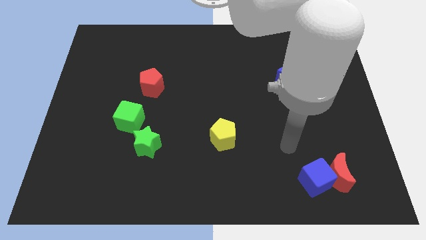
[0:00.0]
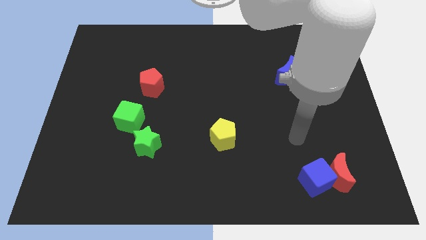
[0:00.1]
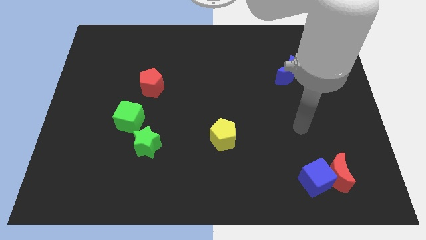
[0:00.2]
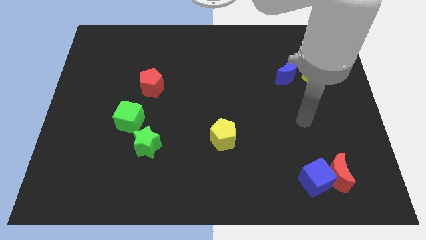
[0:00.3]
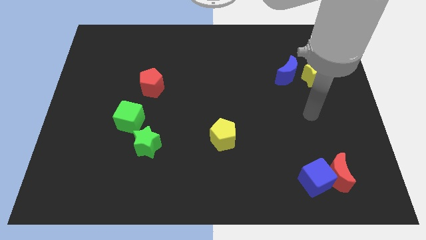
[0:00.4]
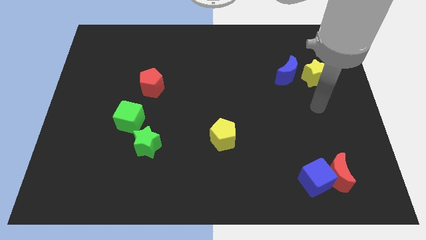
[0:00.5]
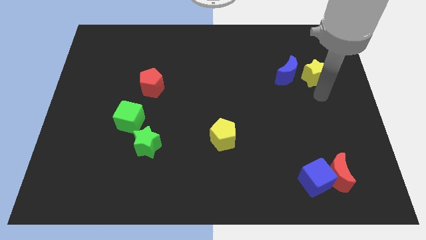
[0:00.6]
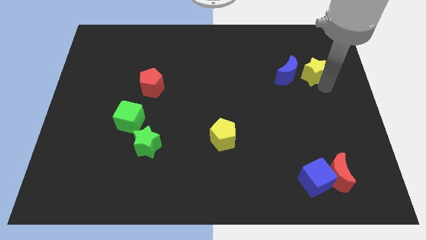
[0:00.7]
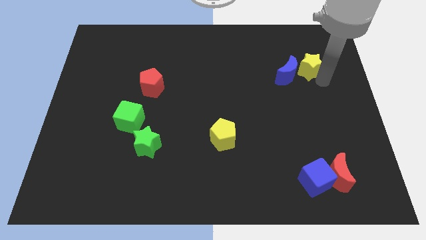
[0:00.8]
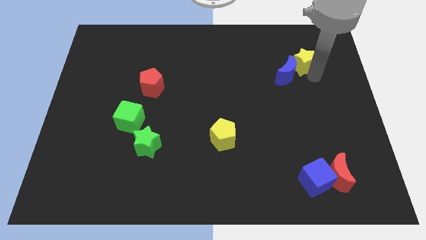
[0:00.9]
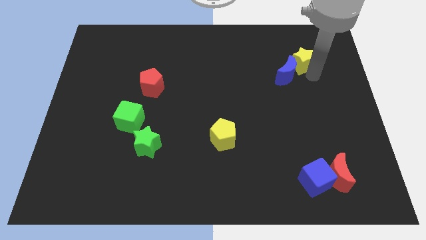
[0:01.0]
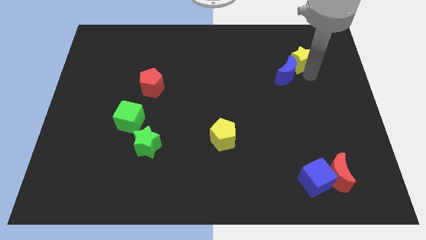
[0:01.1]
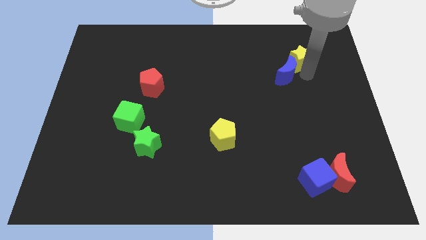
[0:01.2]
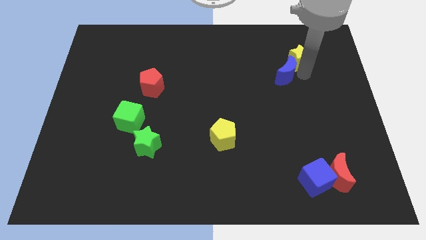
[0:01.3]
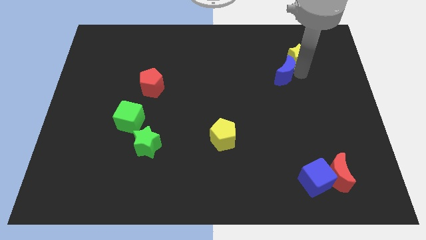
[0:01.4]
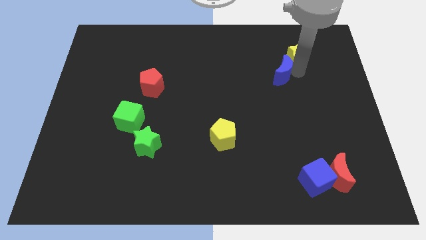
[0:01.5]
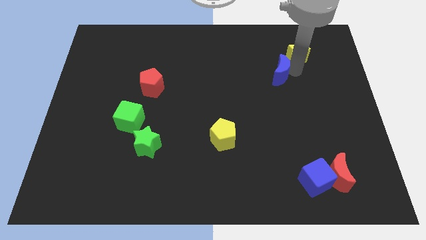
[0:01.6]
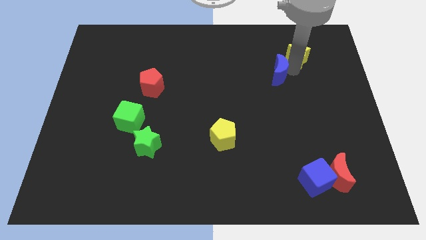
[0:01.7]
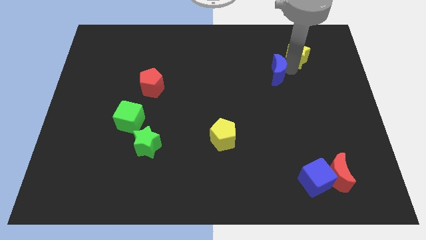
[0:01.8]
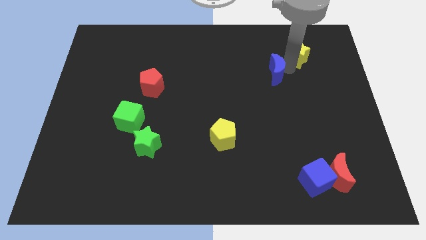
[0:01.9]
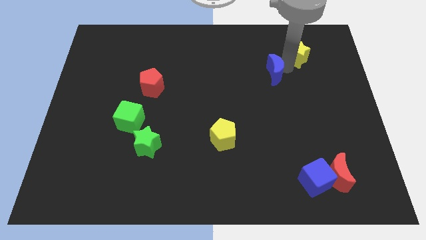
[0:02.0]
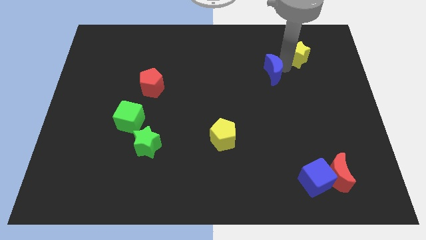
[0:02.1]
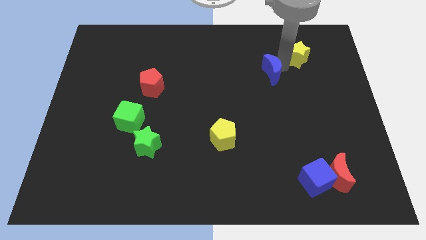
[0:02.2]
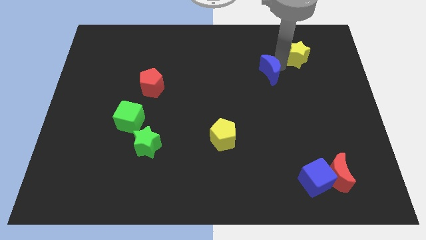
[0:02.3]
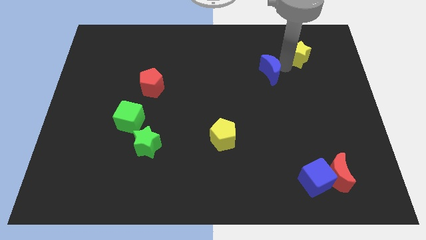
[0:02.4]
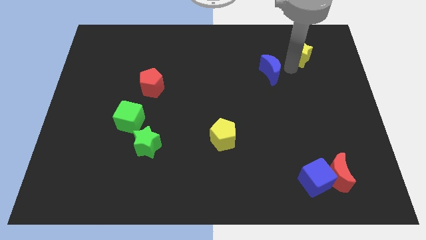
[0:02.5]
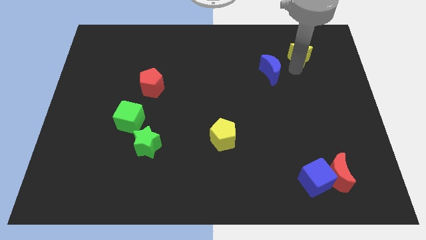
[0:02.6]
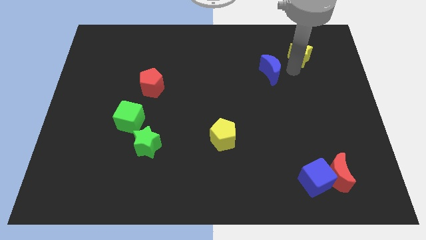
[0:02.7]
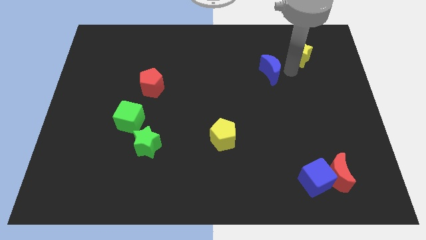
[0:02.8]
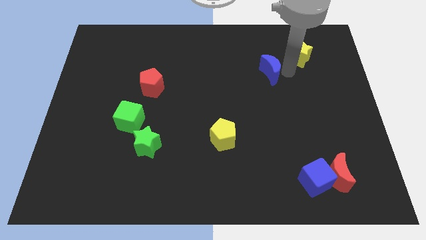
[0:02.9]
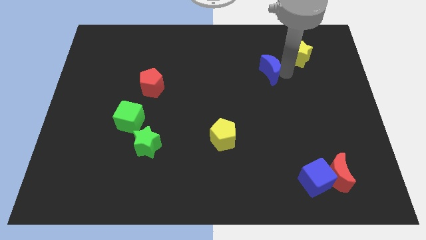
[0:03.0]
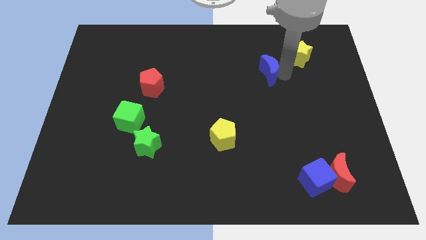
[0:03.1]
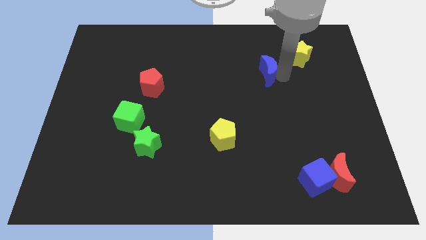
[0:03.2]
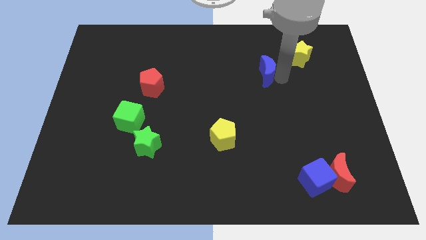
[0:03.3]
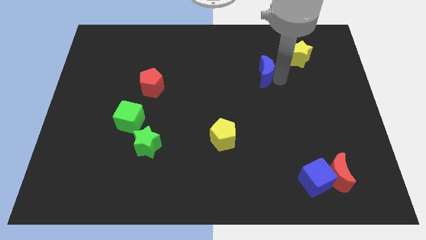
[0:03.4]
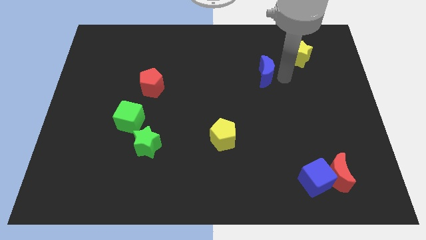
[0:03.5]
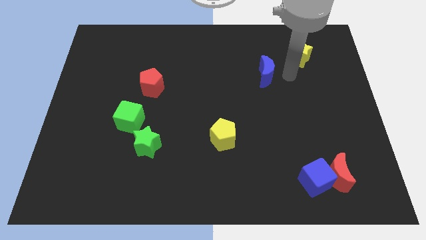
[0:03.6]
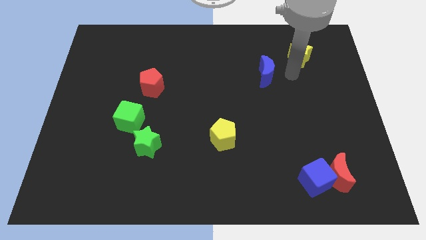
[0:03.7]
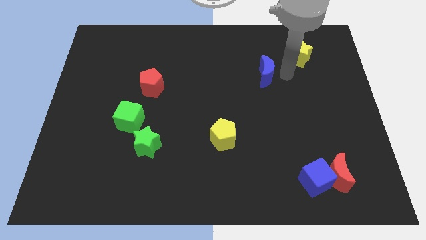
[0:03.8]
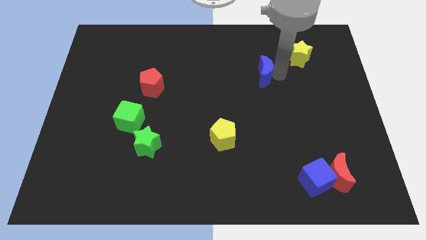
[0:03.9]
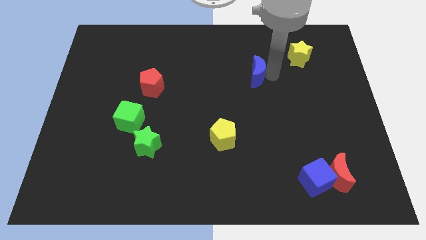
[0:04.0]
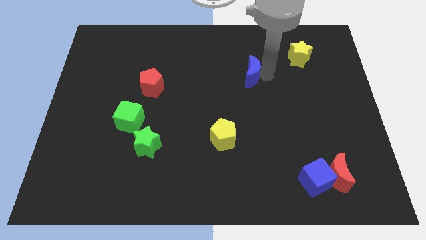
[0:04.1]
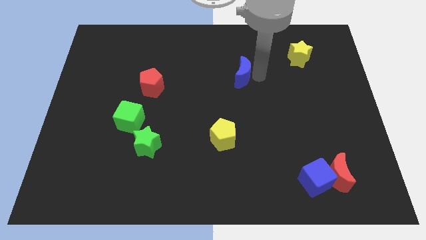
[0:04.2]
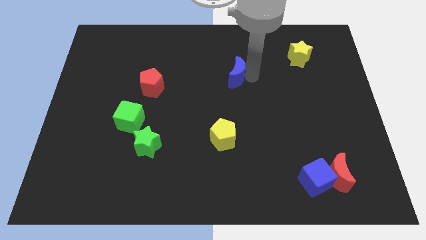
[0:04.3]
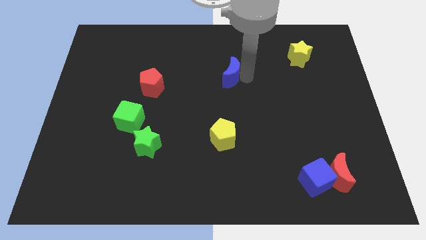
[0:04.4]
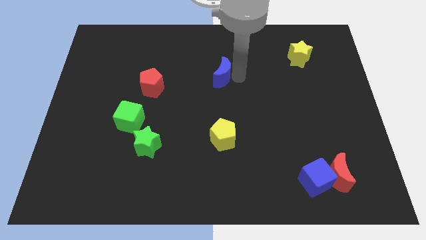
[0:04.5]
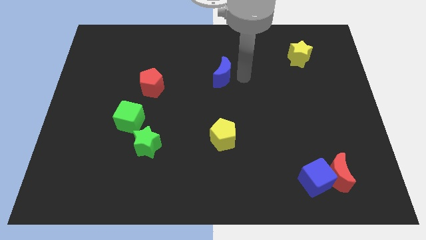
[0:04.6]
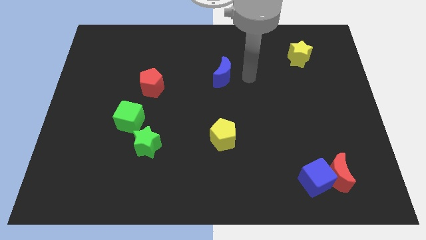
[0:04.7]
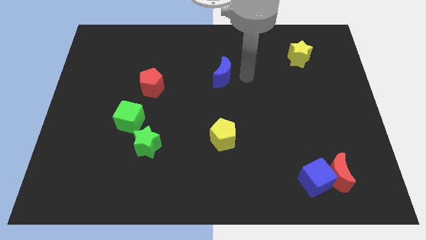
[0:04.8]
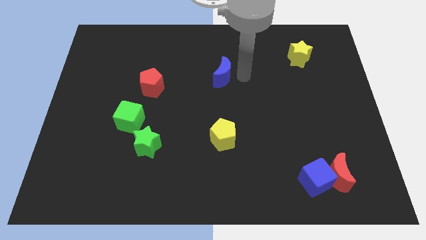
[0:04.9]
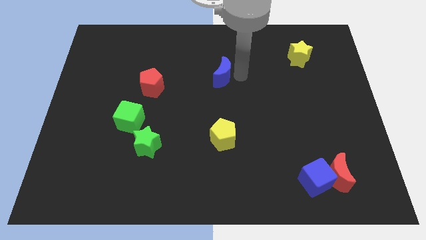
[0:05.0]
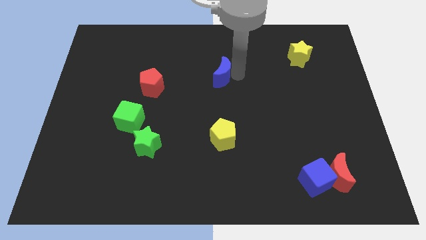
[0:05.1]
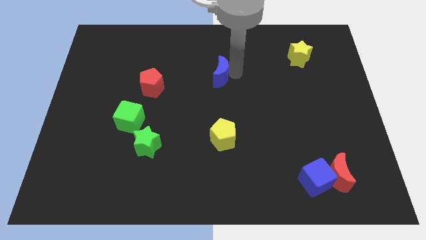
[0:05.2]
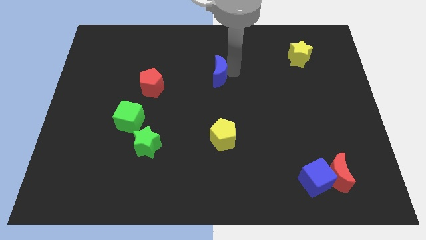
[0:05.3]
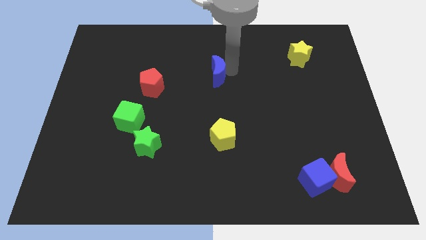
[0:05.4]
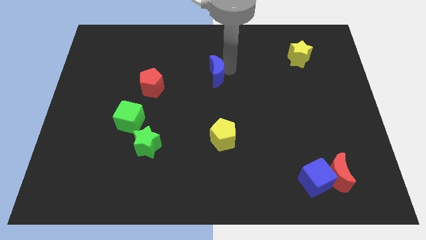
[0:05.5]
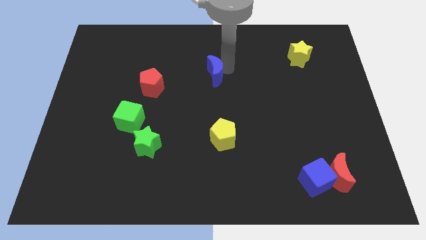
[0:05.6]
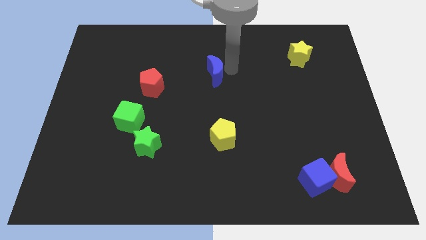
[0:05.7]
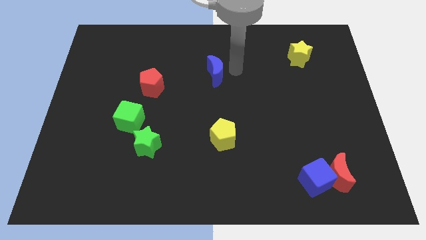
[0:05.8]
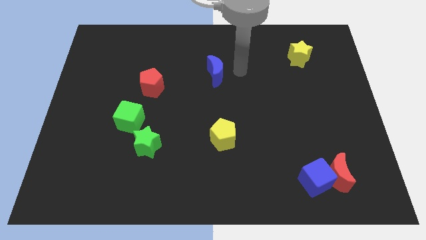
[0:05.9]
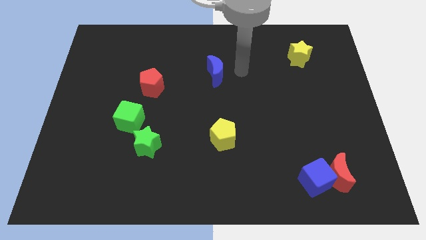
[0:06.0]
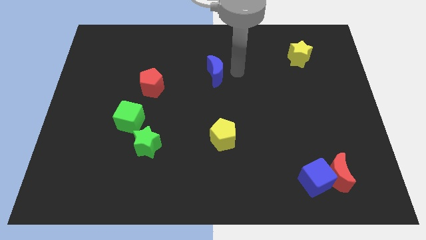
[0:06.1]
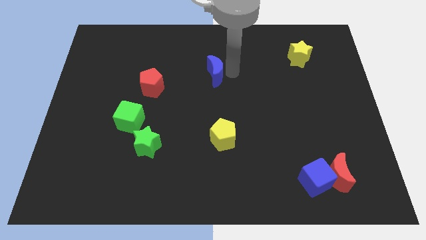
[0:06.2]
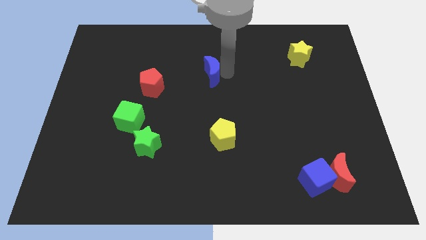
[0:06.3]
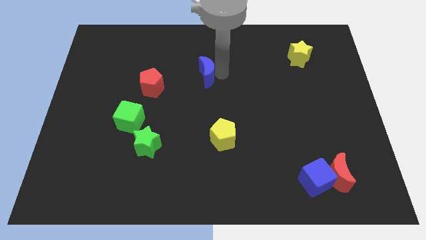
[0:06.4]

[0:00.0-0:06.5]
move the blue moon to the left

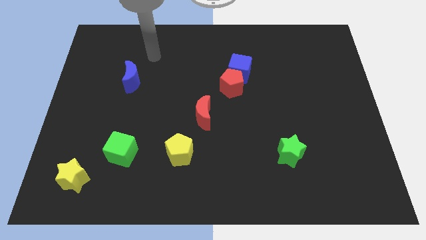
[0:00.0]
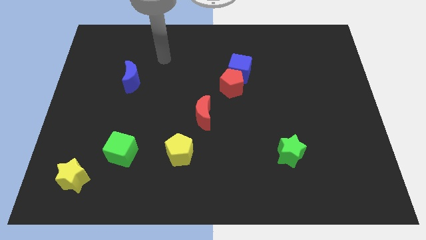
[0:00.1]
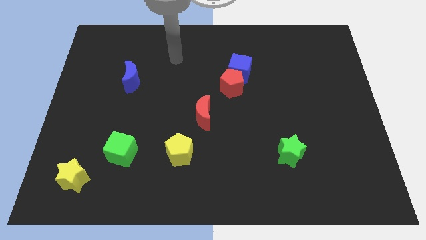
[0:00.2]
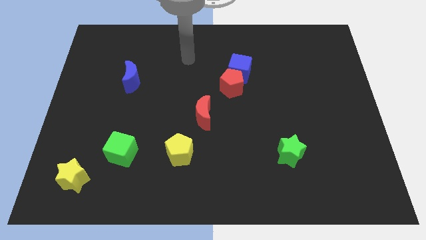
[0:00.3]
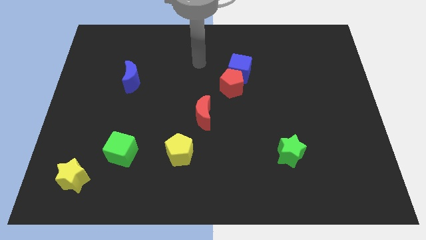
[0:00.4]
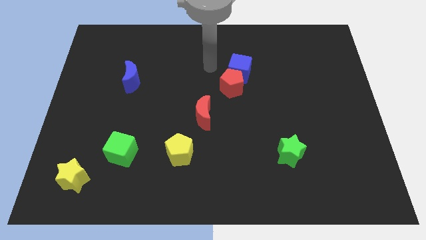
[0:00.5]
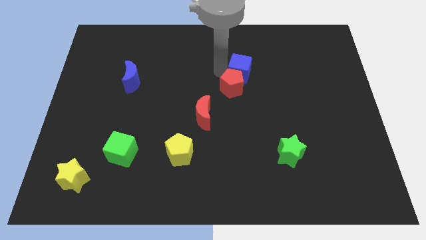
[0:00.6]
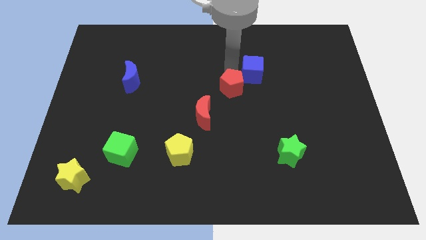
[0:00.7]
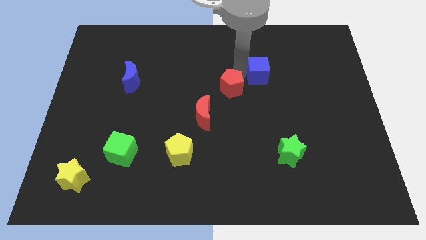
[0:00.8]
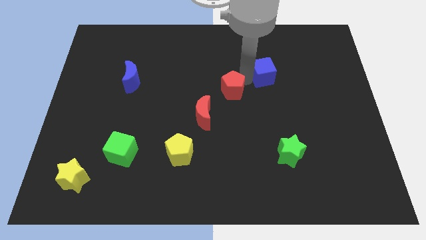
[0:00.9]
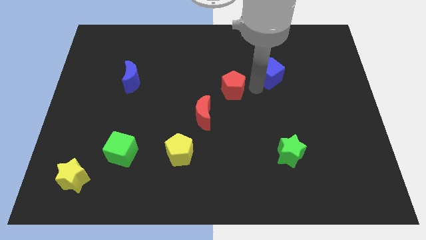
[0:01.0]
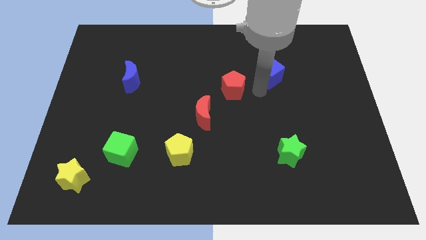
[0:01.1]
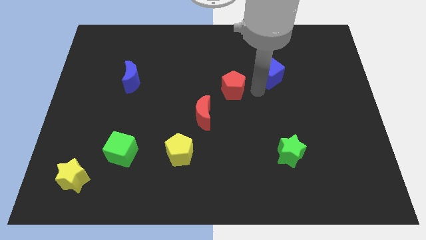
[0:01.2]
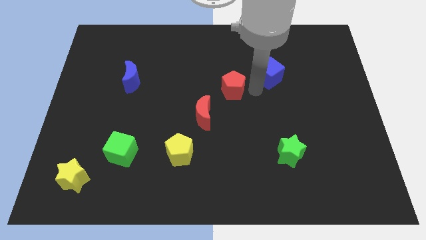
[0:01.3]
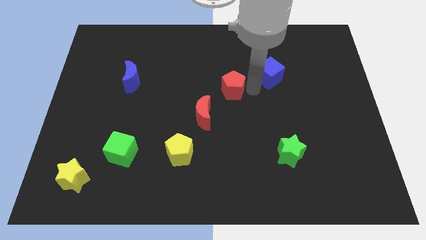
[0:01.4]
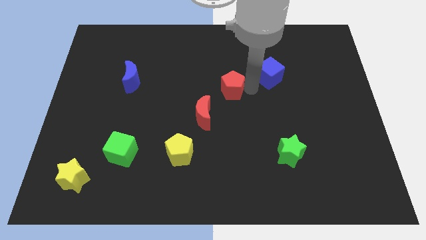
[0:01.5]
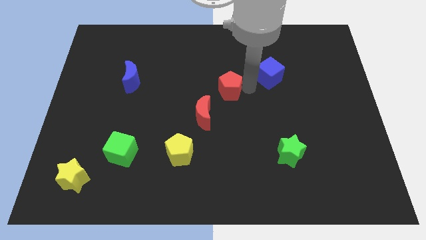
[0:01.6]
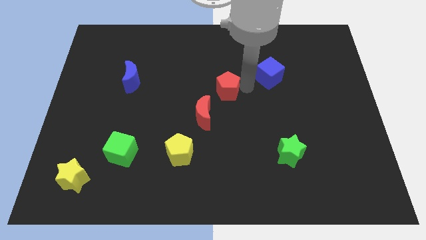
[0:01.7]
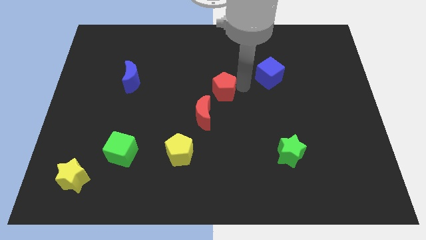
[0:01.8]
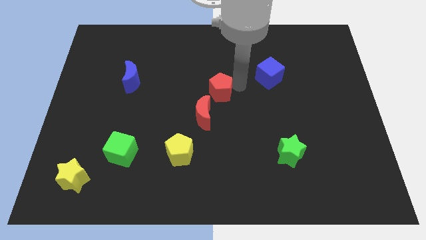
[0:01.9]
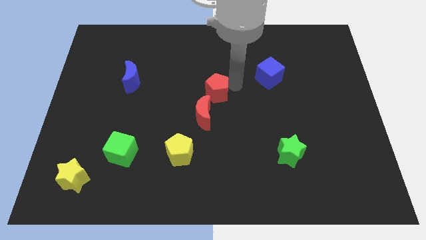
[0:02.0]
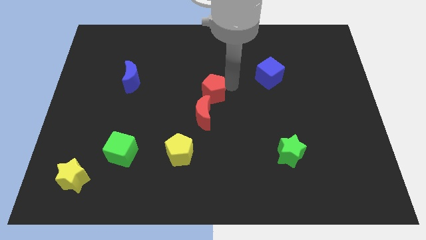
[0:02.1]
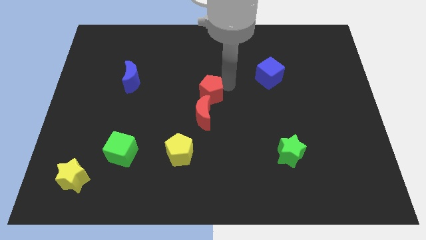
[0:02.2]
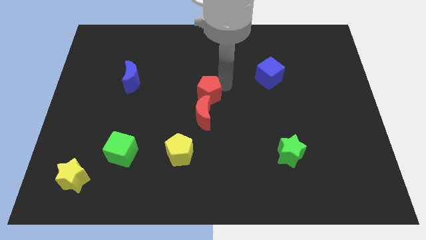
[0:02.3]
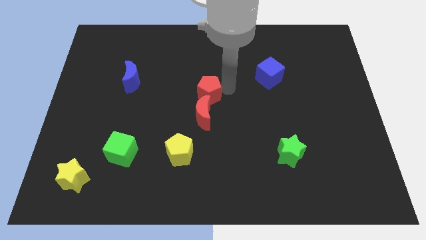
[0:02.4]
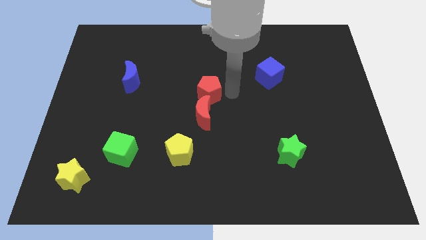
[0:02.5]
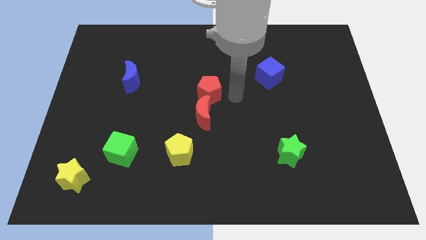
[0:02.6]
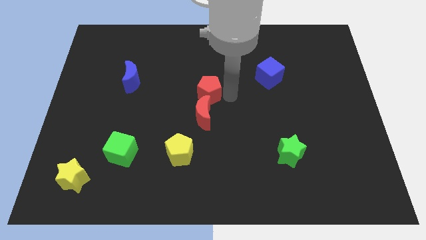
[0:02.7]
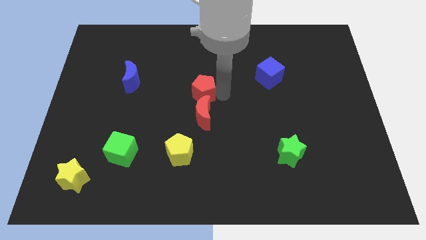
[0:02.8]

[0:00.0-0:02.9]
slightly push the red pentagon left
